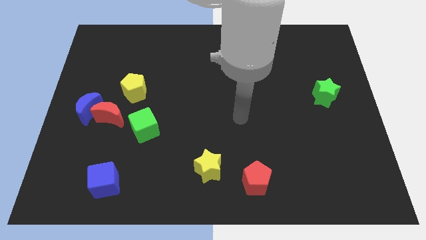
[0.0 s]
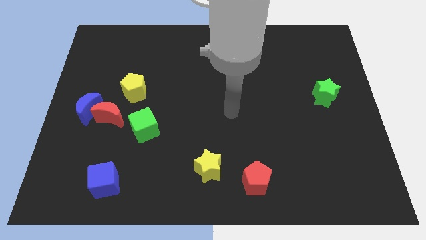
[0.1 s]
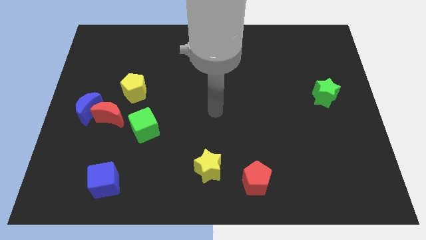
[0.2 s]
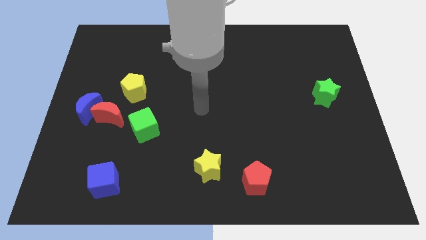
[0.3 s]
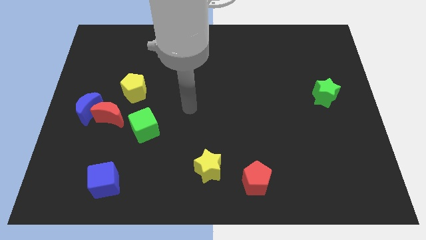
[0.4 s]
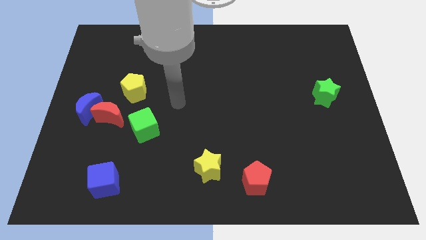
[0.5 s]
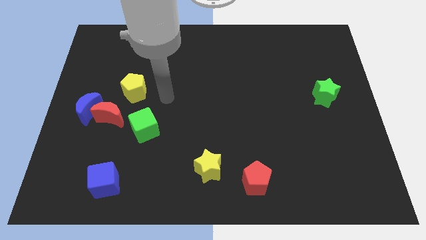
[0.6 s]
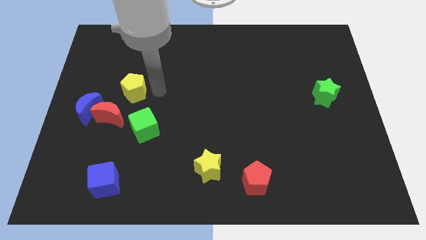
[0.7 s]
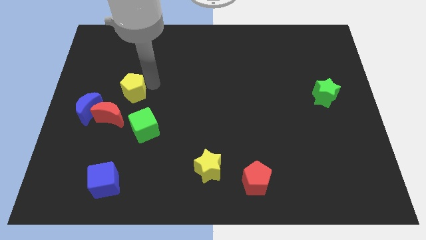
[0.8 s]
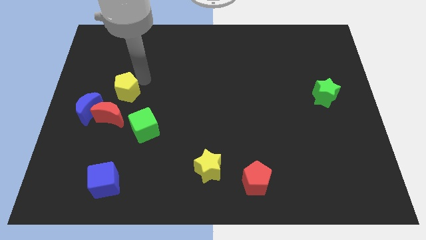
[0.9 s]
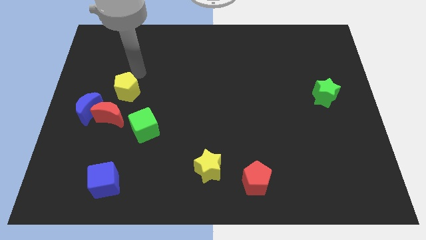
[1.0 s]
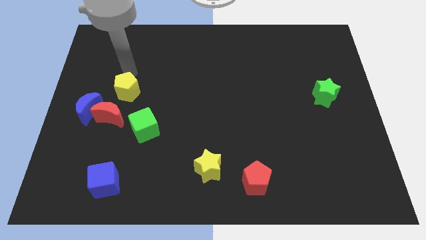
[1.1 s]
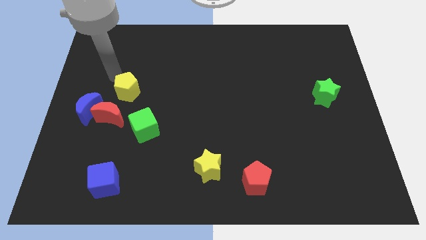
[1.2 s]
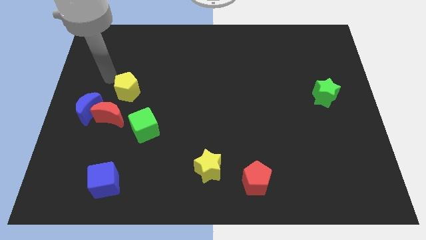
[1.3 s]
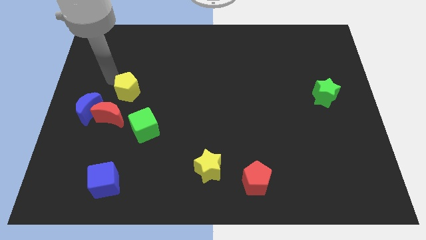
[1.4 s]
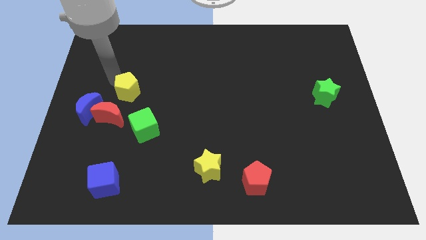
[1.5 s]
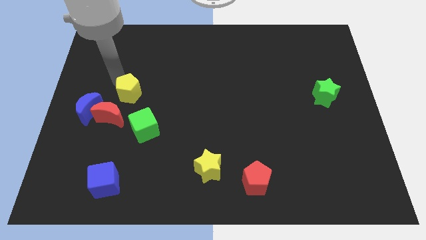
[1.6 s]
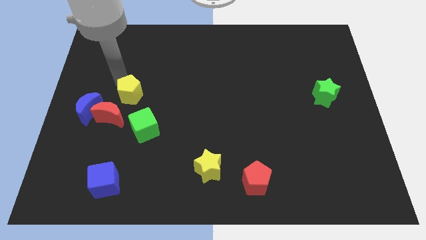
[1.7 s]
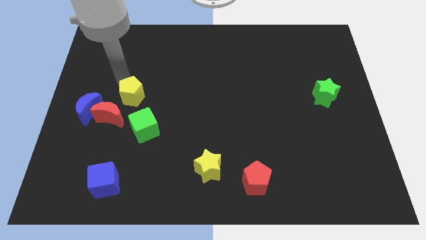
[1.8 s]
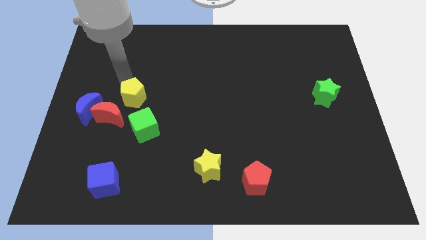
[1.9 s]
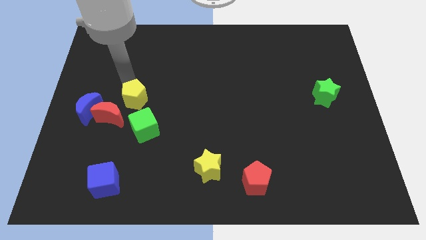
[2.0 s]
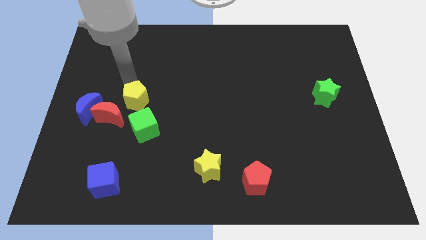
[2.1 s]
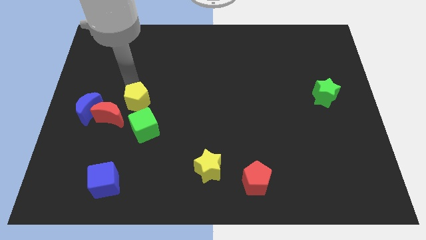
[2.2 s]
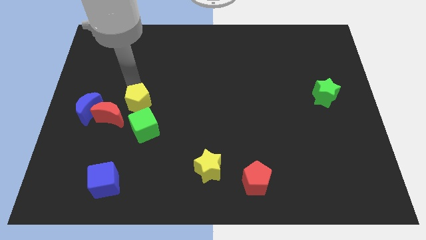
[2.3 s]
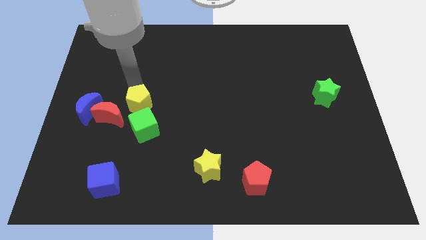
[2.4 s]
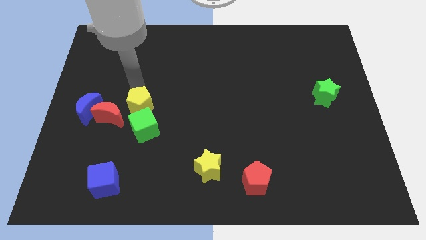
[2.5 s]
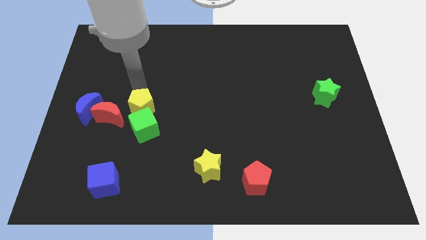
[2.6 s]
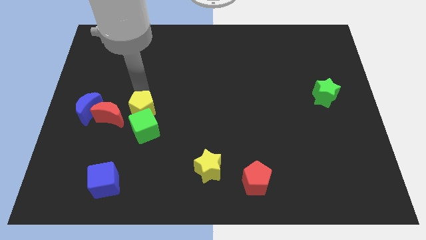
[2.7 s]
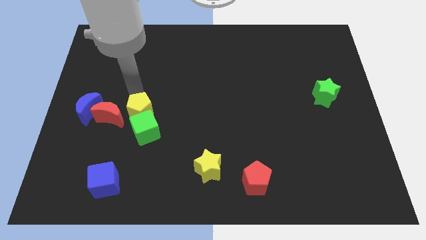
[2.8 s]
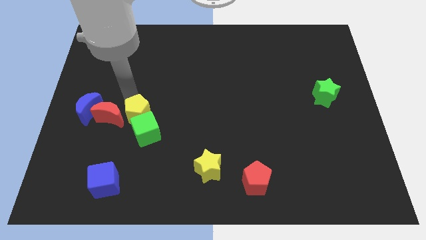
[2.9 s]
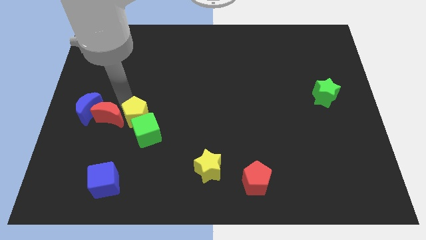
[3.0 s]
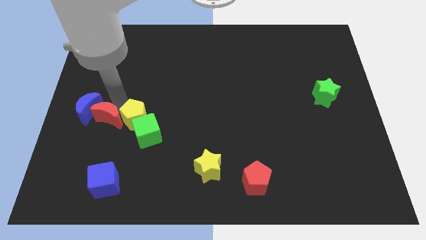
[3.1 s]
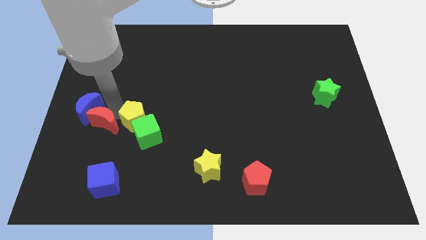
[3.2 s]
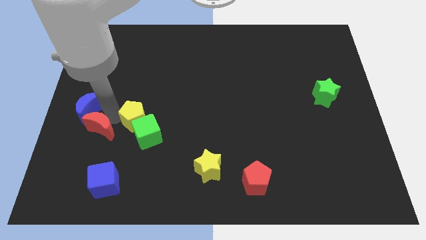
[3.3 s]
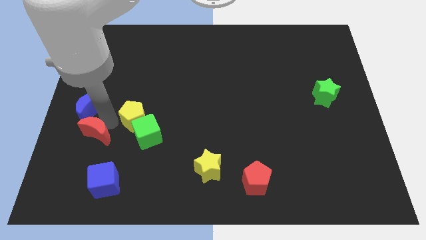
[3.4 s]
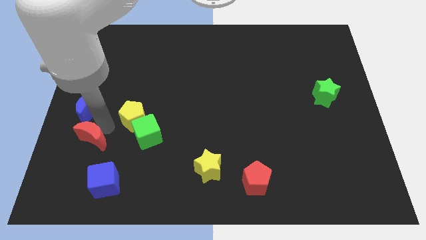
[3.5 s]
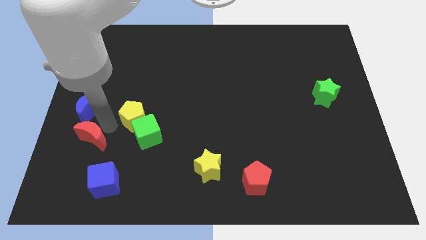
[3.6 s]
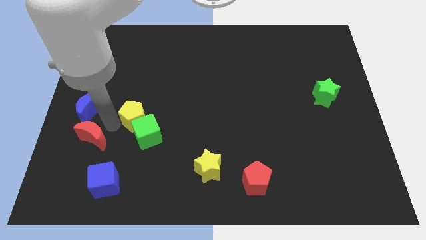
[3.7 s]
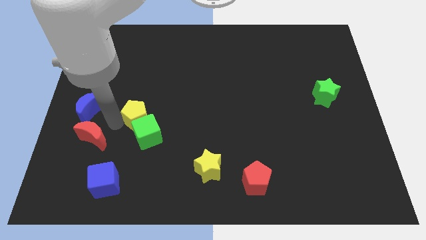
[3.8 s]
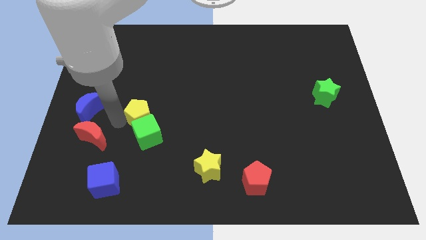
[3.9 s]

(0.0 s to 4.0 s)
slide the yellow pentagon down and right diagonally a little bit

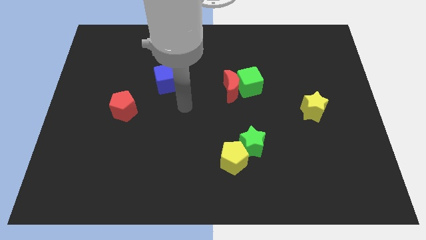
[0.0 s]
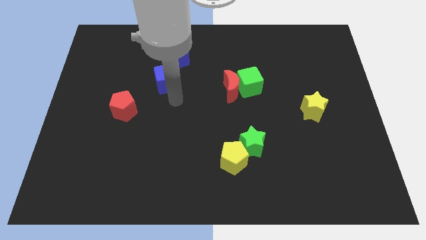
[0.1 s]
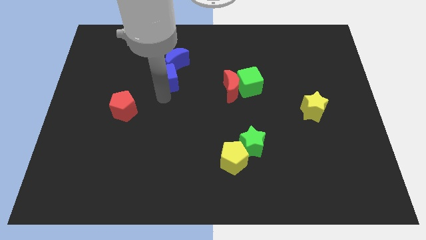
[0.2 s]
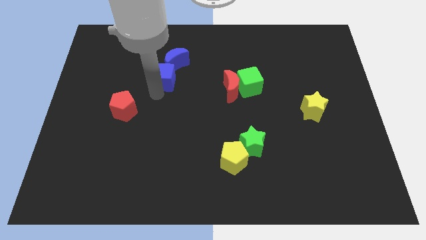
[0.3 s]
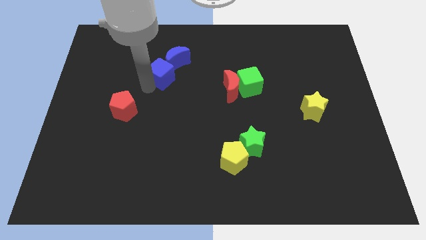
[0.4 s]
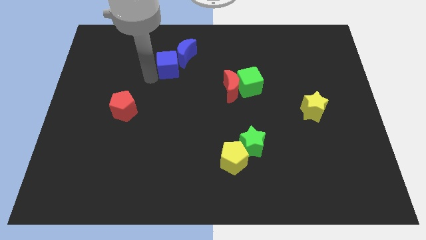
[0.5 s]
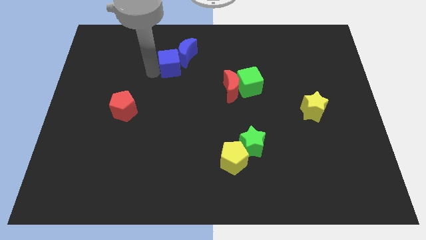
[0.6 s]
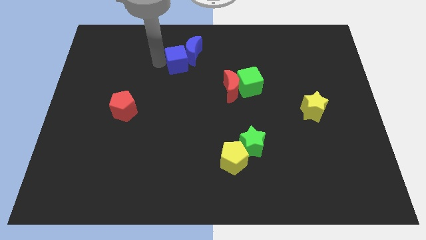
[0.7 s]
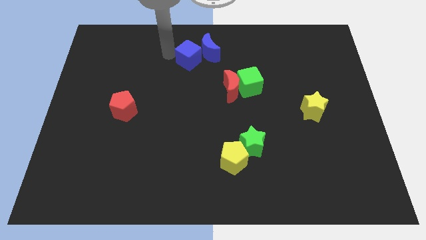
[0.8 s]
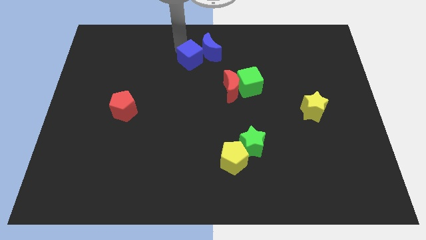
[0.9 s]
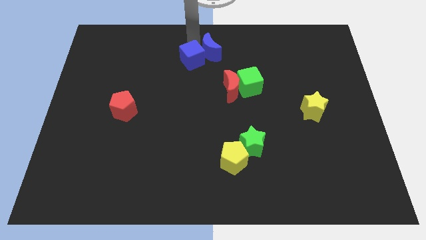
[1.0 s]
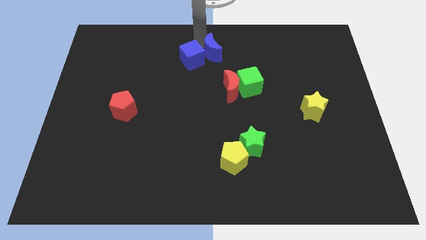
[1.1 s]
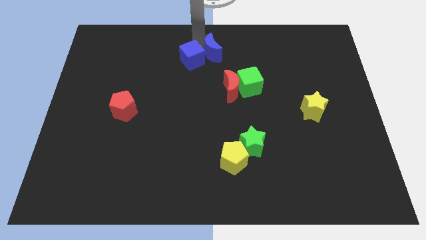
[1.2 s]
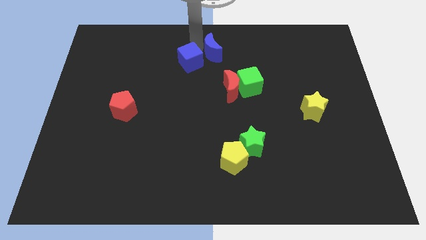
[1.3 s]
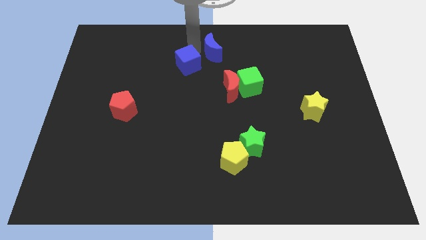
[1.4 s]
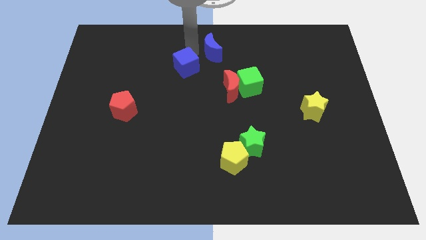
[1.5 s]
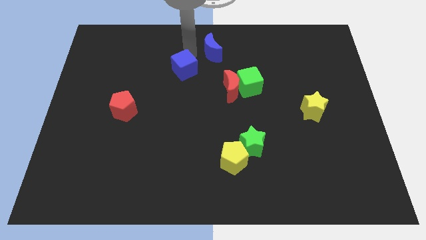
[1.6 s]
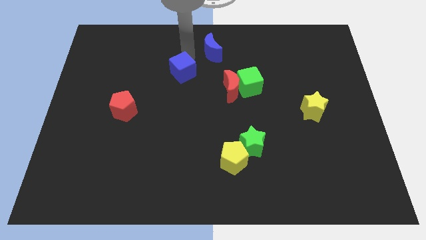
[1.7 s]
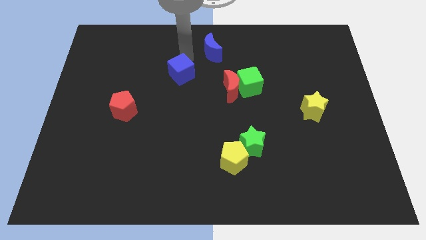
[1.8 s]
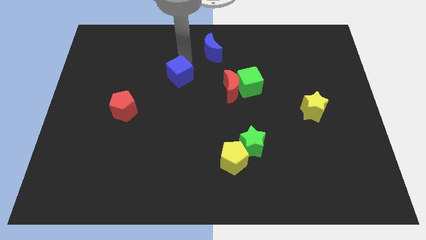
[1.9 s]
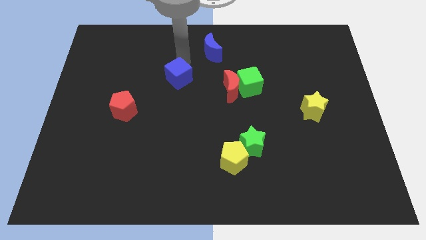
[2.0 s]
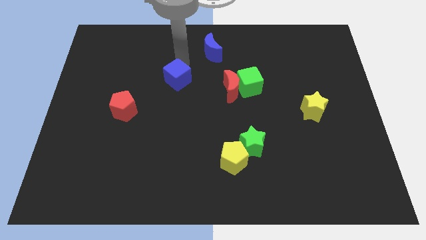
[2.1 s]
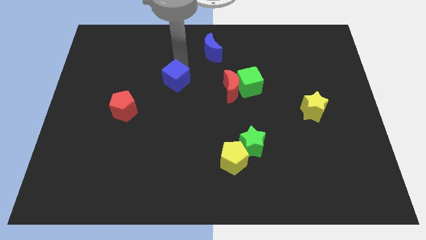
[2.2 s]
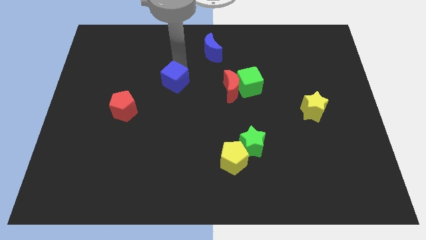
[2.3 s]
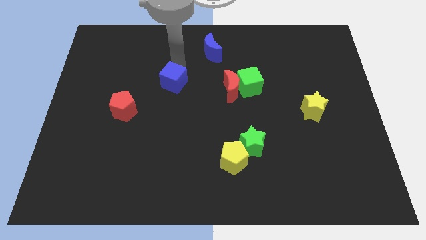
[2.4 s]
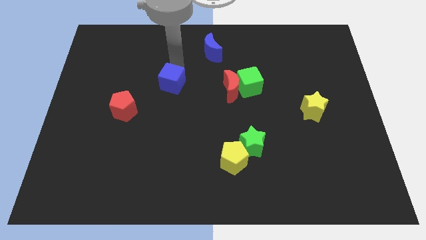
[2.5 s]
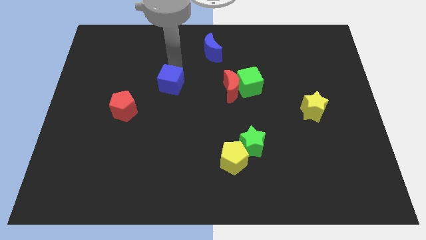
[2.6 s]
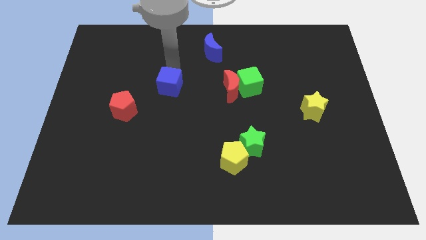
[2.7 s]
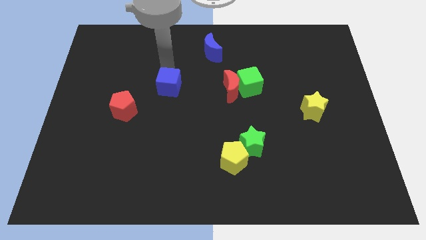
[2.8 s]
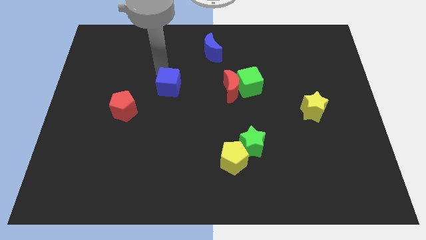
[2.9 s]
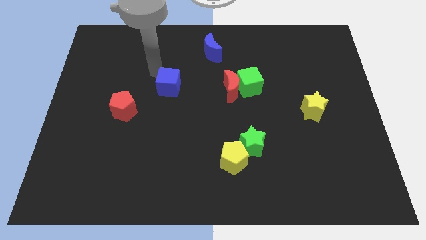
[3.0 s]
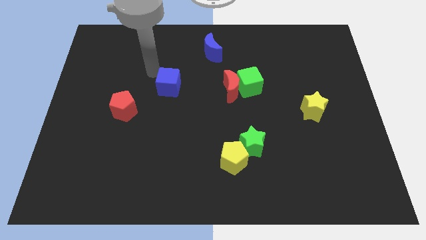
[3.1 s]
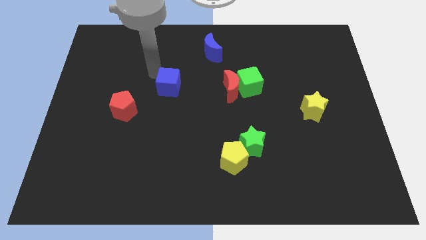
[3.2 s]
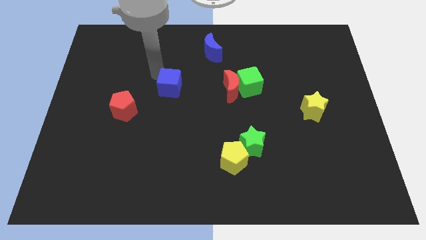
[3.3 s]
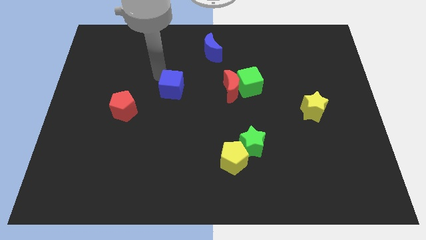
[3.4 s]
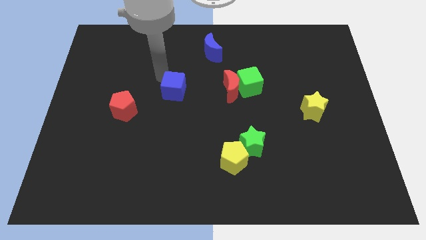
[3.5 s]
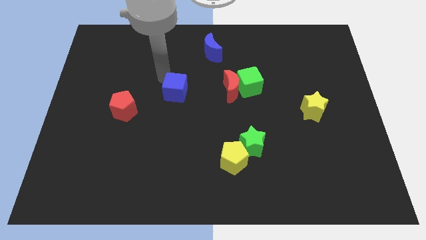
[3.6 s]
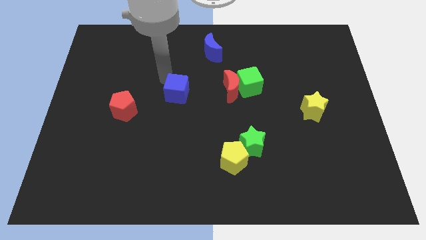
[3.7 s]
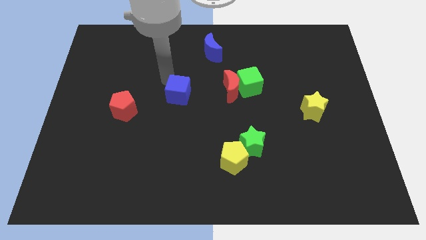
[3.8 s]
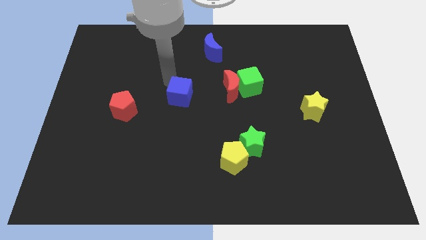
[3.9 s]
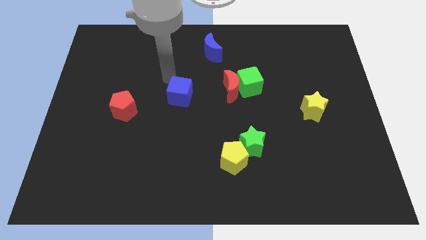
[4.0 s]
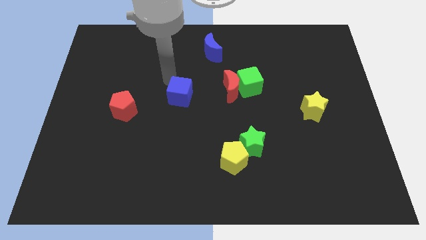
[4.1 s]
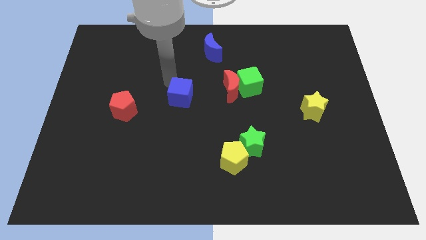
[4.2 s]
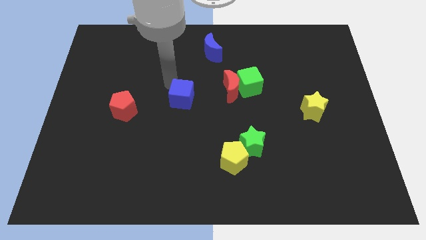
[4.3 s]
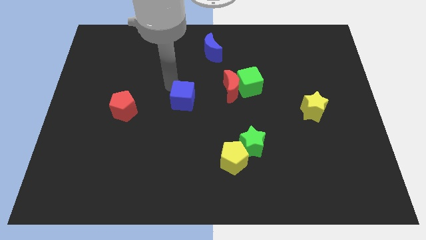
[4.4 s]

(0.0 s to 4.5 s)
move the blue cube a little bit downwards and to the right
